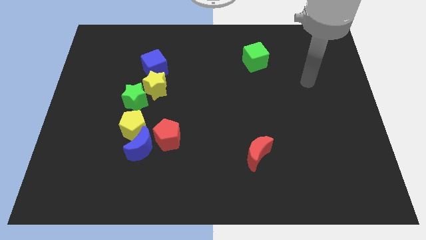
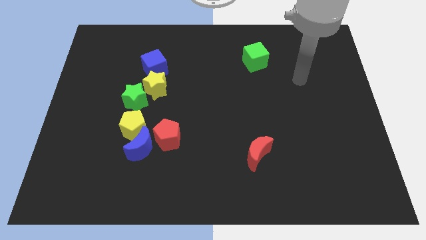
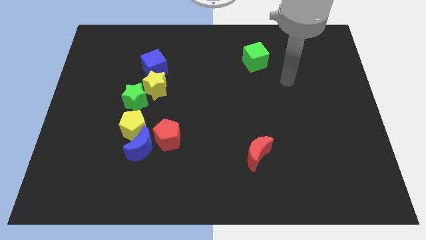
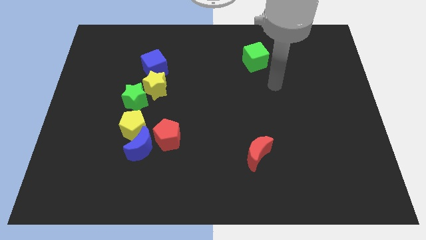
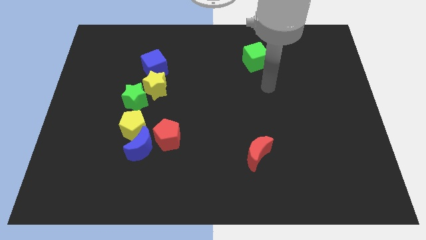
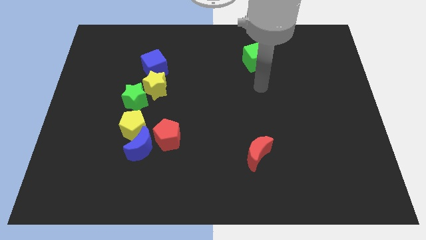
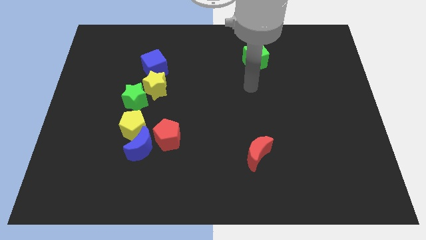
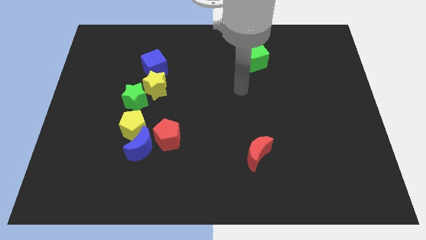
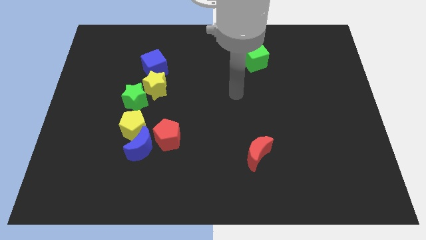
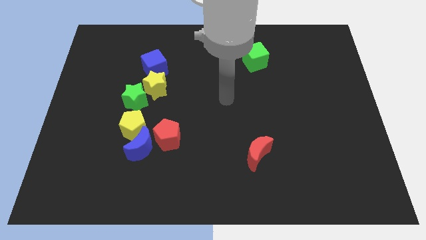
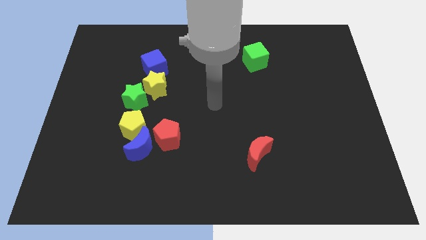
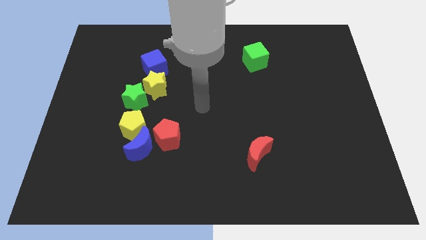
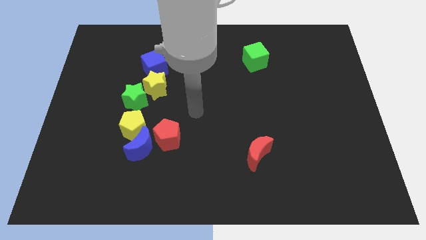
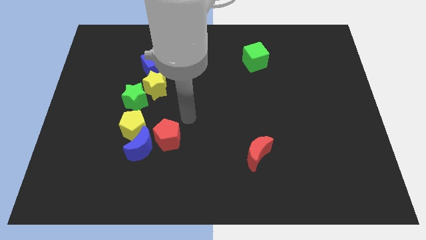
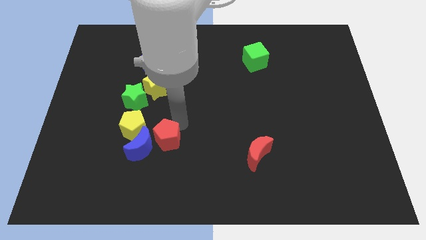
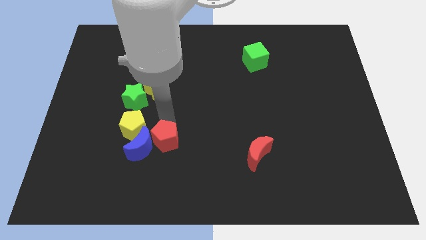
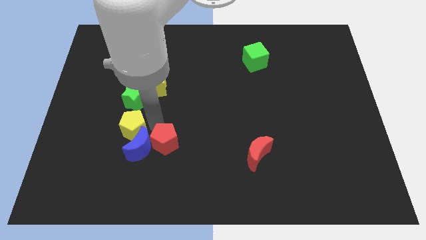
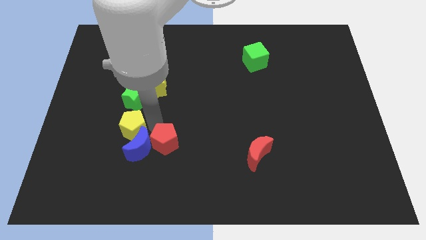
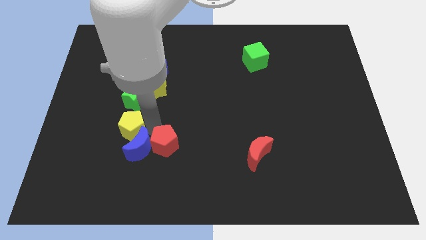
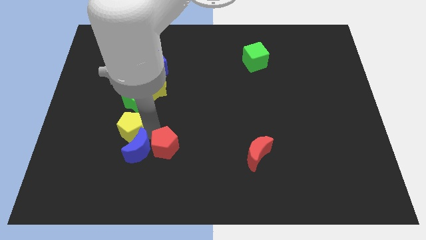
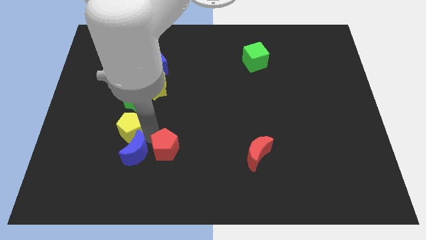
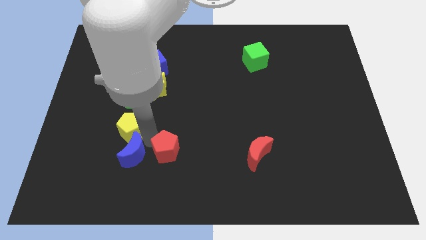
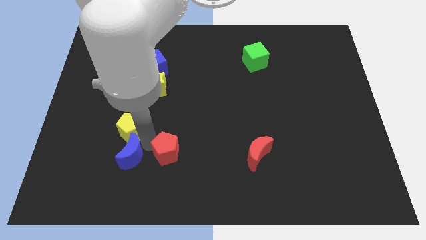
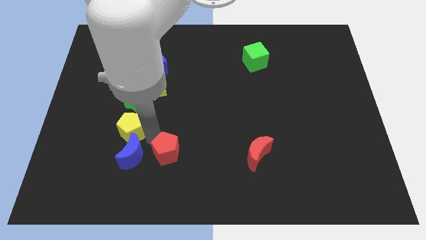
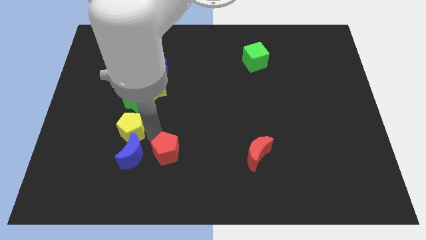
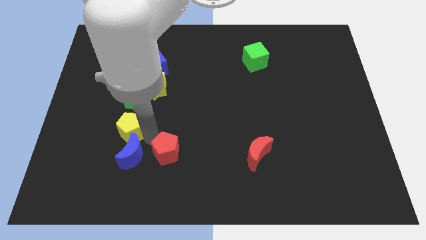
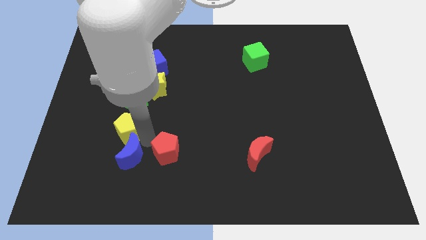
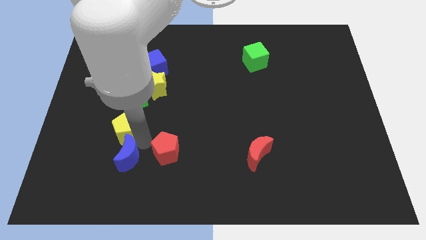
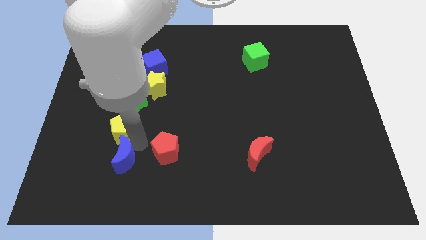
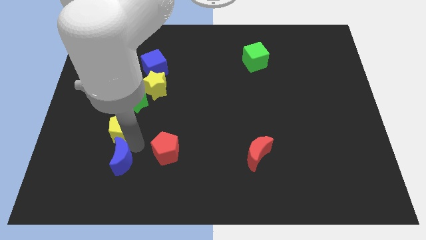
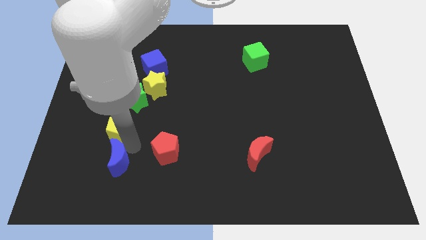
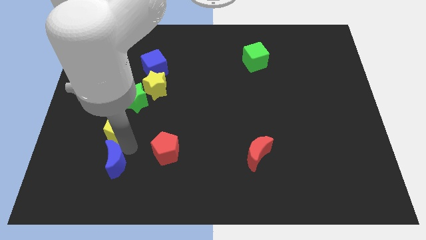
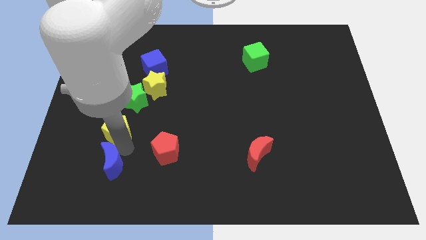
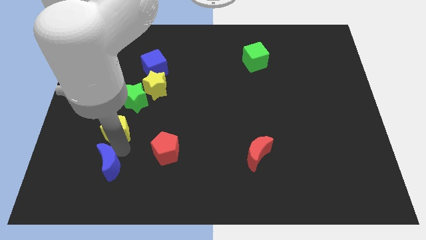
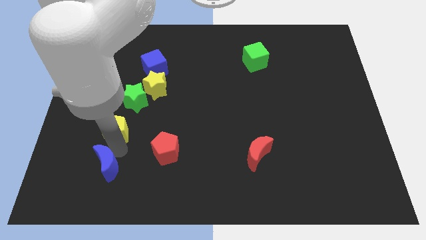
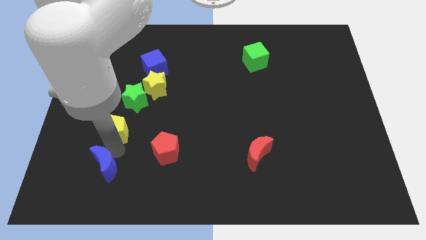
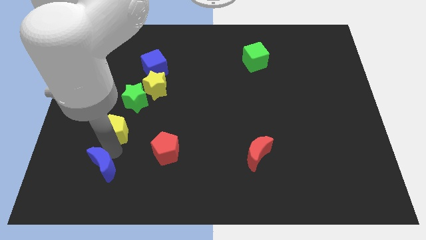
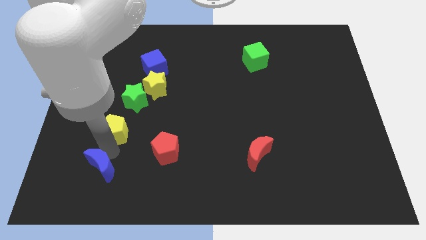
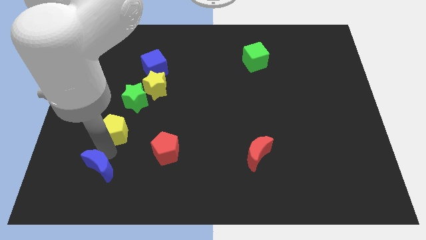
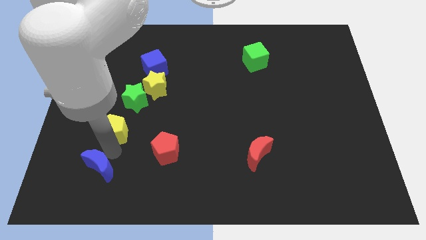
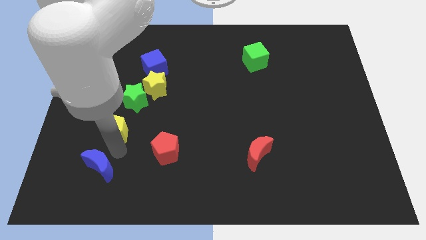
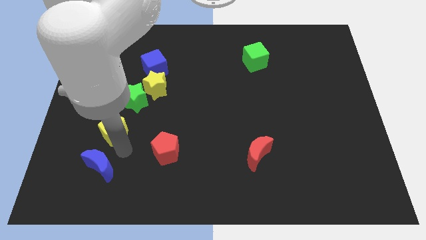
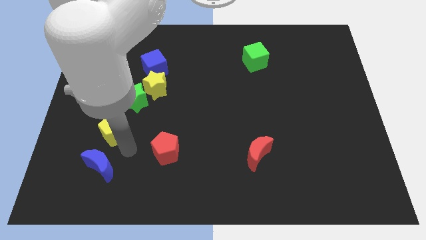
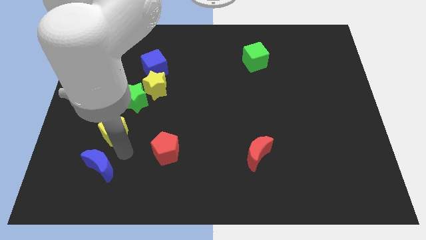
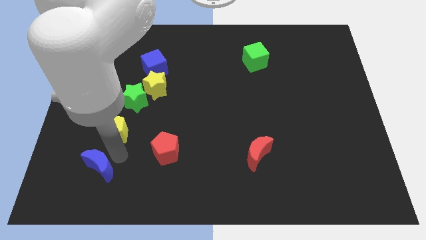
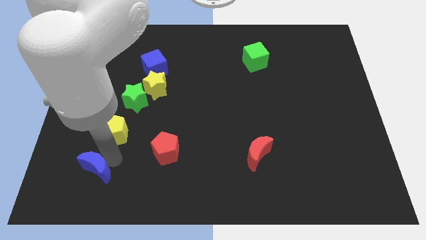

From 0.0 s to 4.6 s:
separate the blue moon from the yellow pentagon and red pentagon

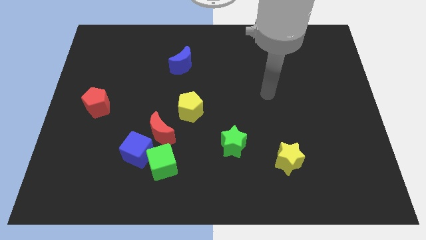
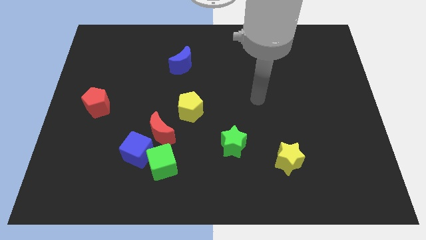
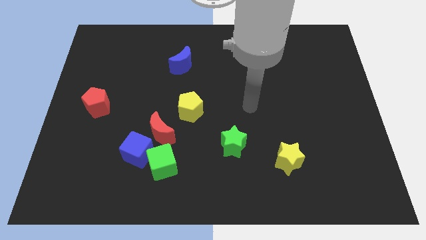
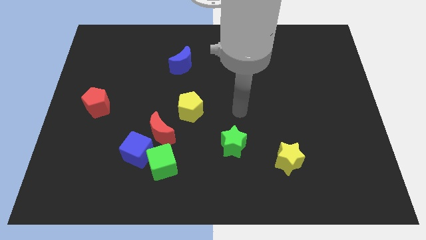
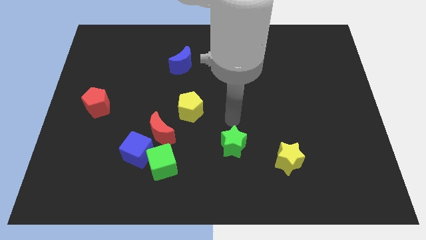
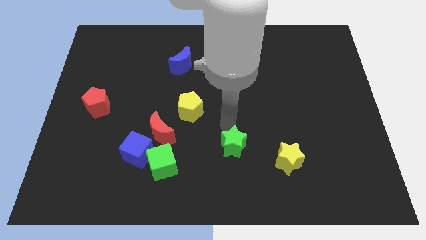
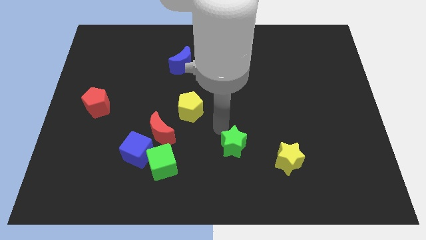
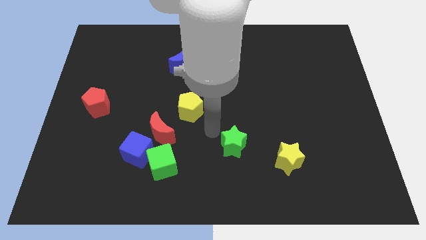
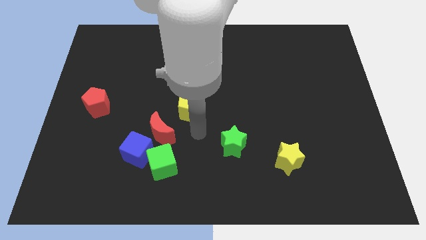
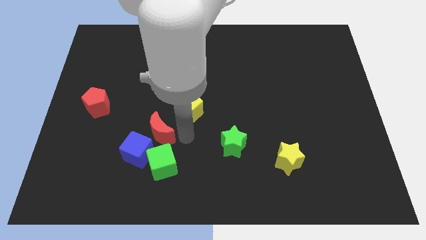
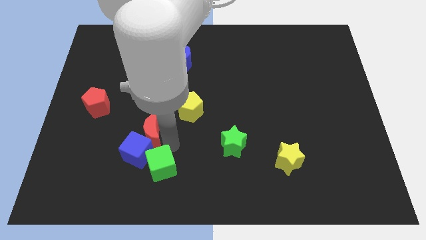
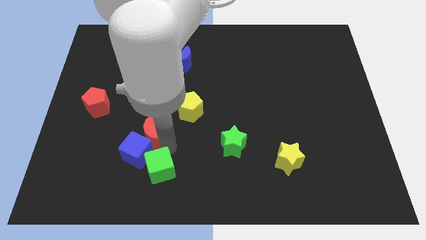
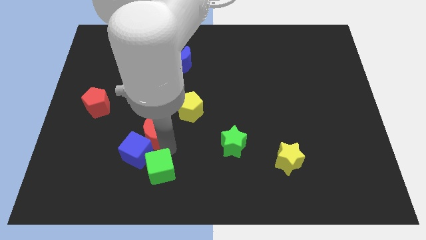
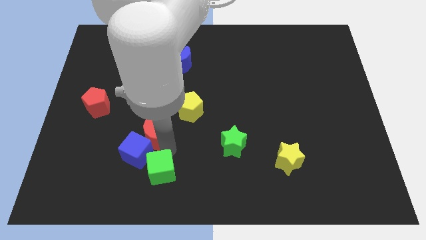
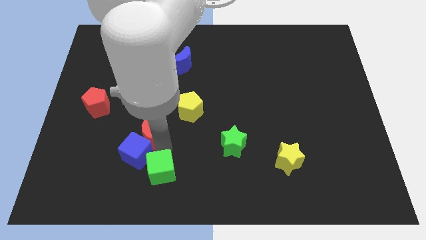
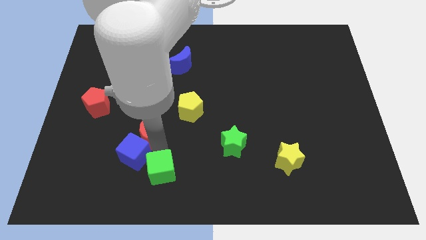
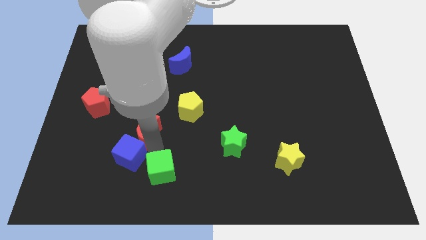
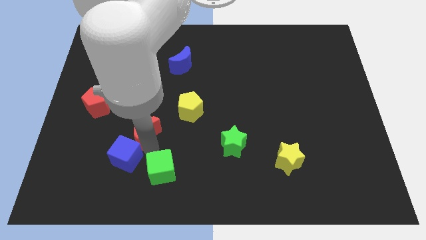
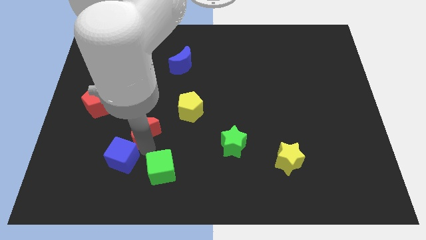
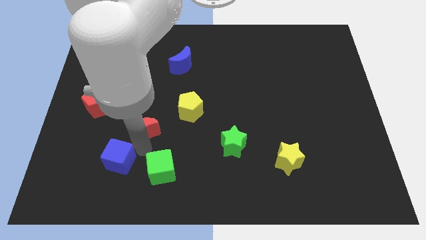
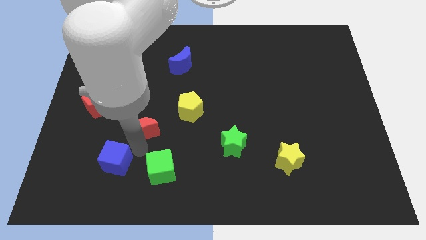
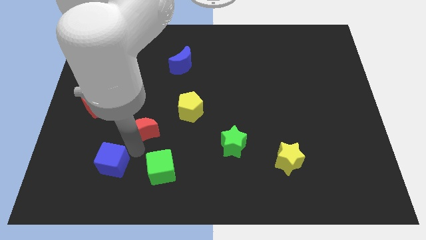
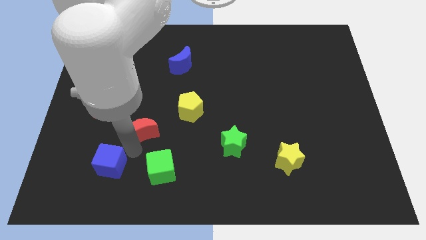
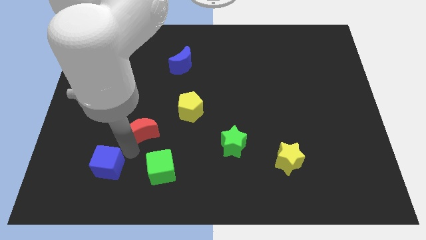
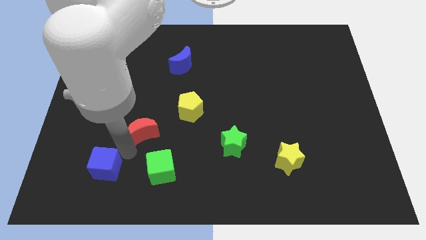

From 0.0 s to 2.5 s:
pull the blue cube apart from the green cube and red moon

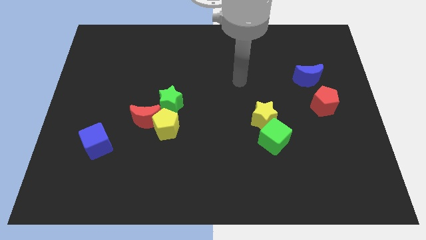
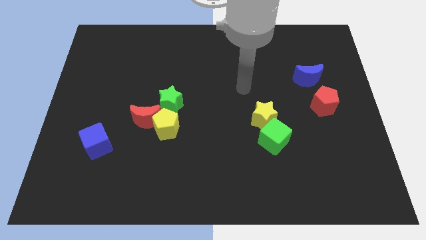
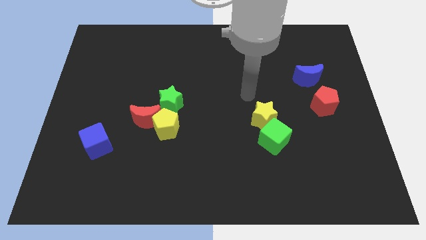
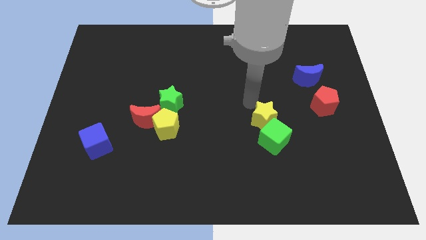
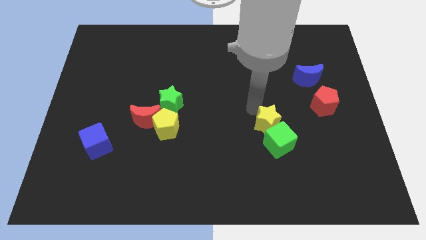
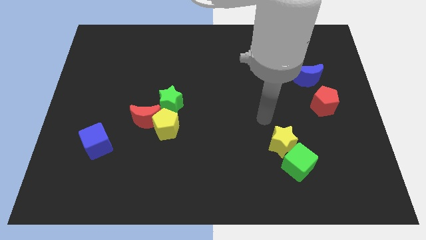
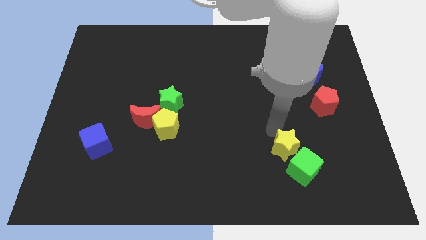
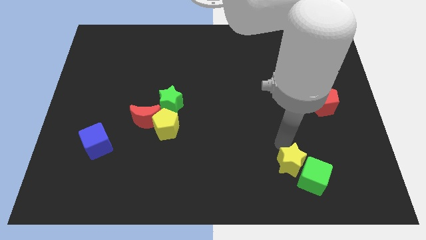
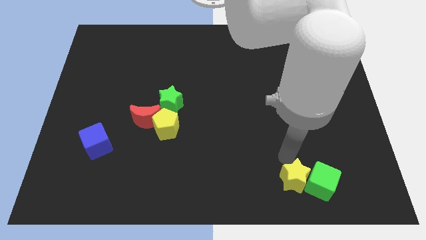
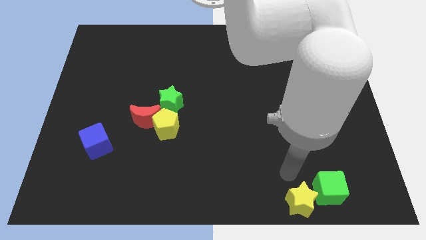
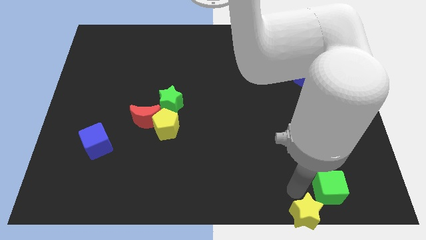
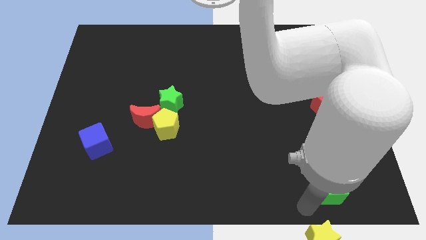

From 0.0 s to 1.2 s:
separate the green cube from the yellow star

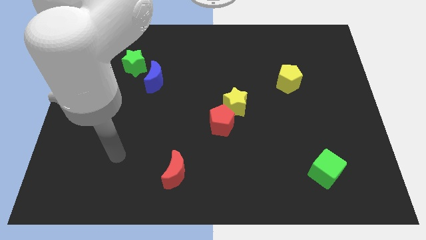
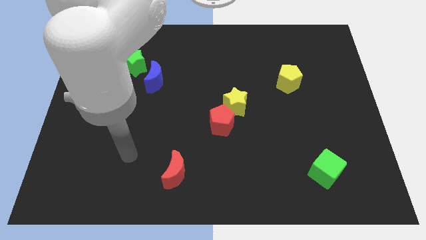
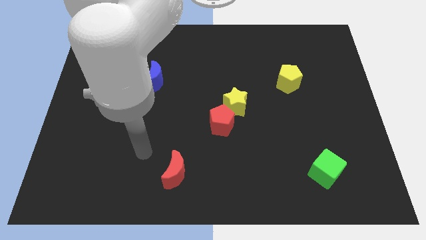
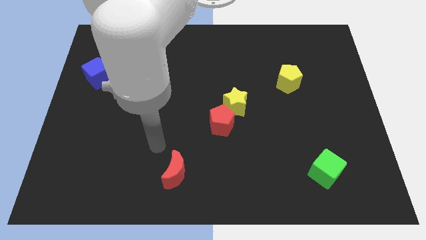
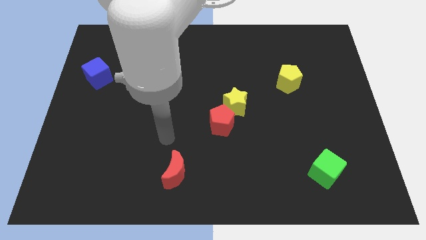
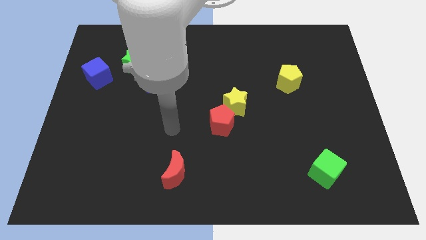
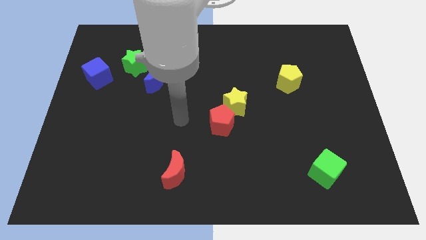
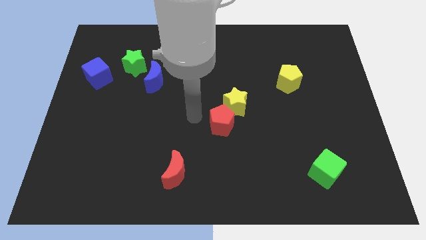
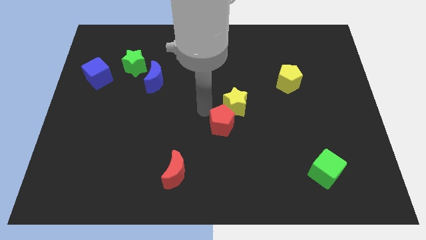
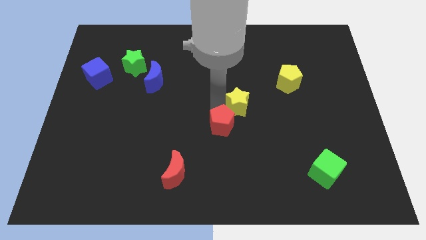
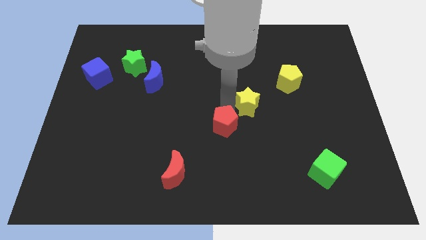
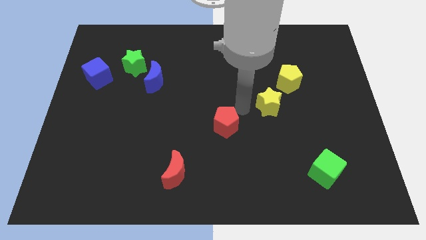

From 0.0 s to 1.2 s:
pull the red pentagon apart from the yellow star
